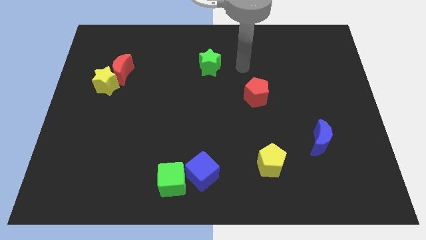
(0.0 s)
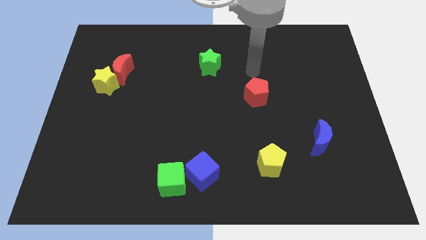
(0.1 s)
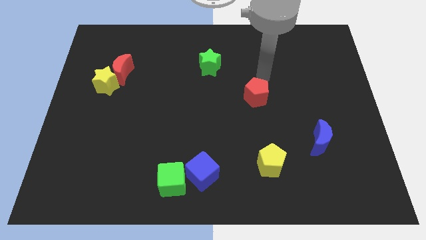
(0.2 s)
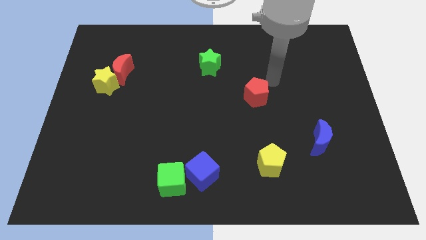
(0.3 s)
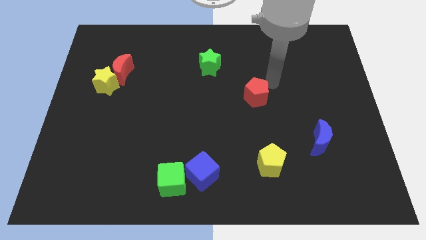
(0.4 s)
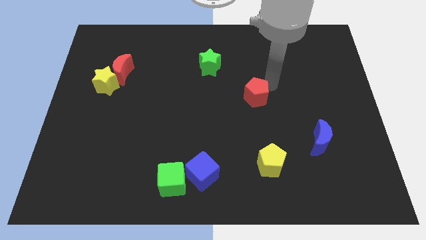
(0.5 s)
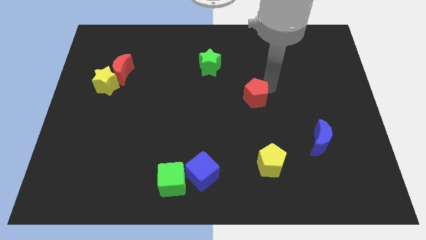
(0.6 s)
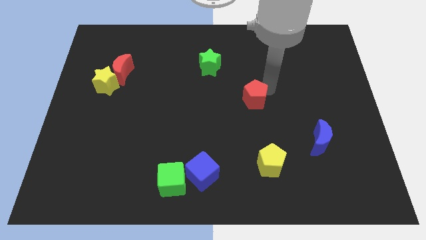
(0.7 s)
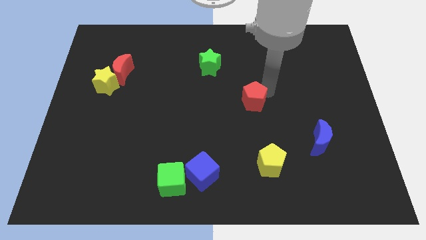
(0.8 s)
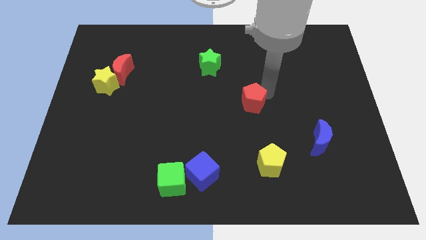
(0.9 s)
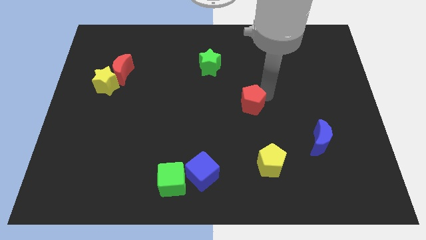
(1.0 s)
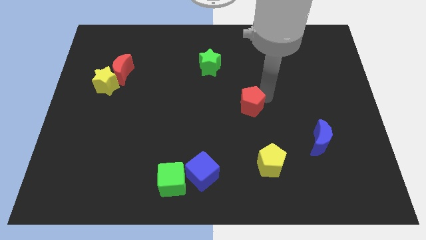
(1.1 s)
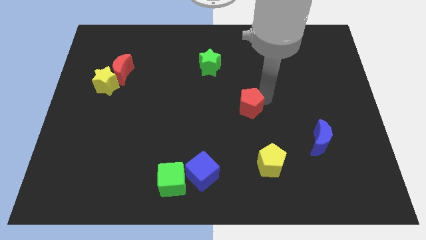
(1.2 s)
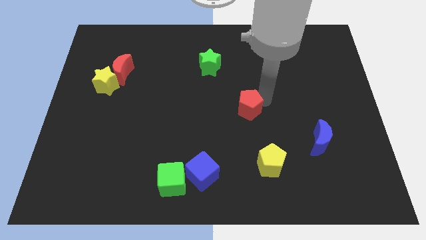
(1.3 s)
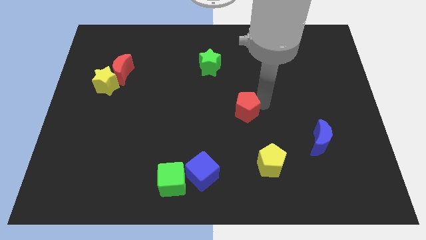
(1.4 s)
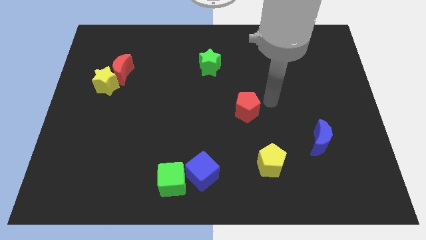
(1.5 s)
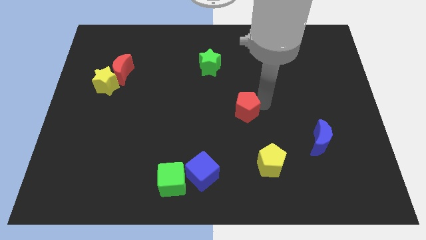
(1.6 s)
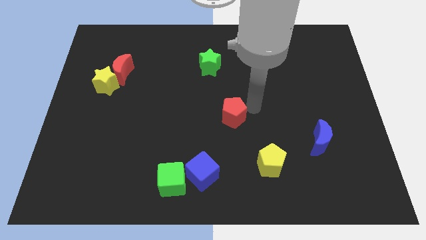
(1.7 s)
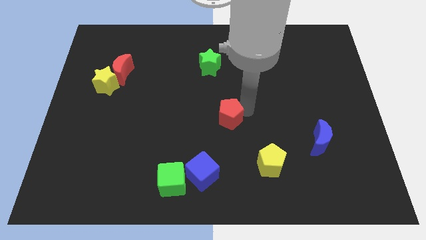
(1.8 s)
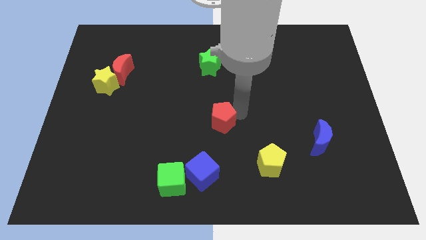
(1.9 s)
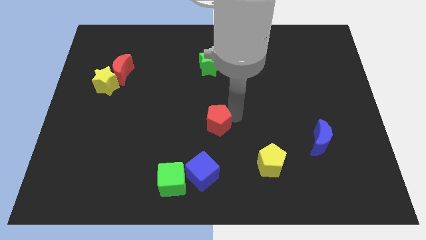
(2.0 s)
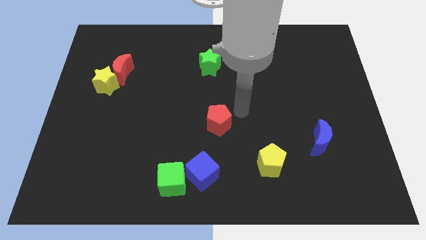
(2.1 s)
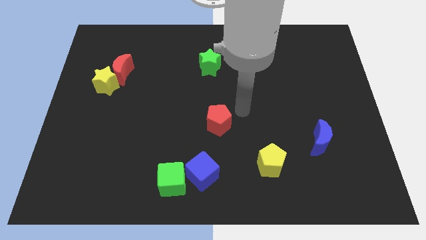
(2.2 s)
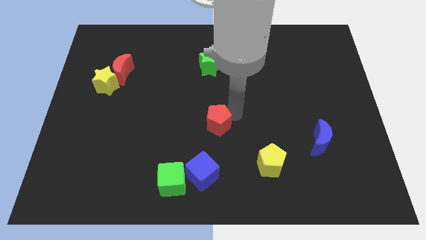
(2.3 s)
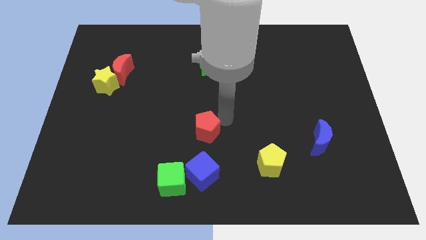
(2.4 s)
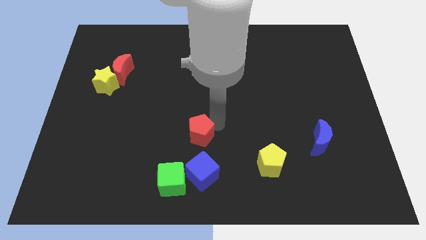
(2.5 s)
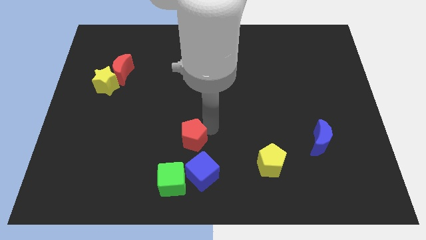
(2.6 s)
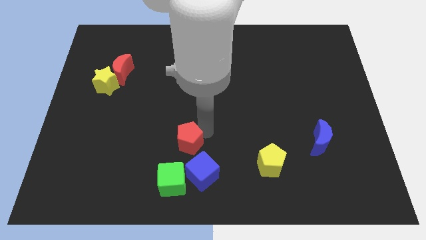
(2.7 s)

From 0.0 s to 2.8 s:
push the red pentagon diagonally downwards and left

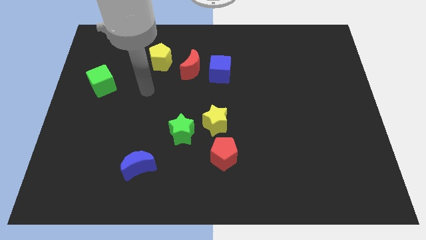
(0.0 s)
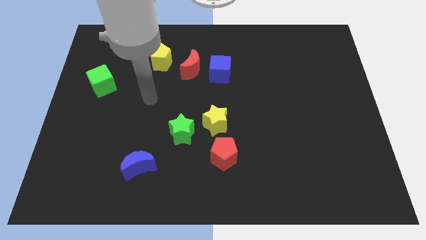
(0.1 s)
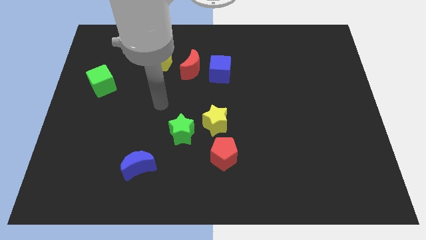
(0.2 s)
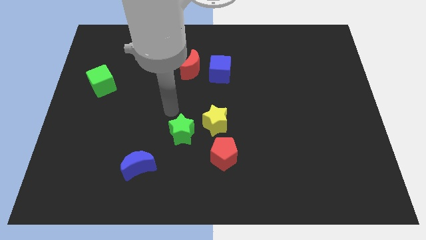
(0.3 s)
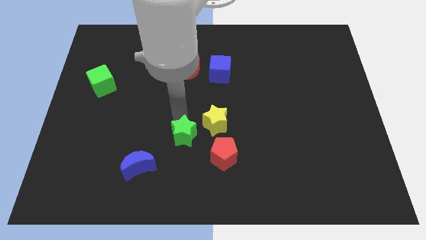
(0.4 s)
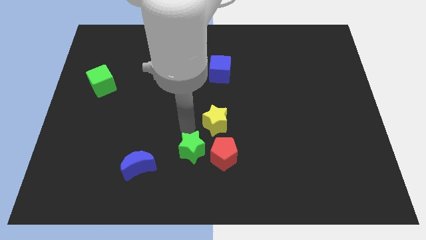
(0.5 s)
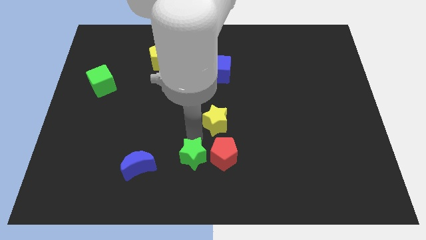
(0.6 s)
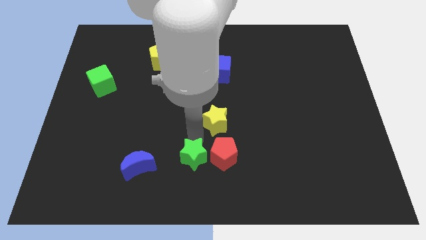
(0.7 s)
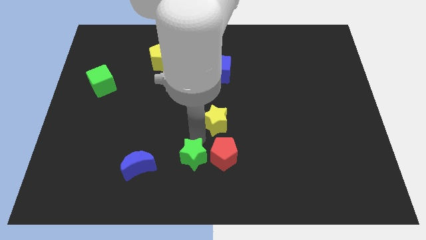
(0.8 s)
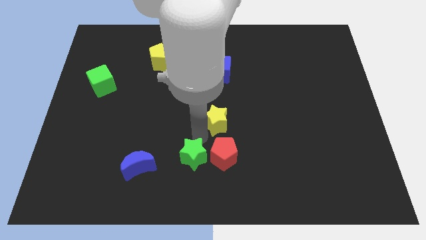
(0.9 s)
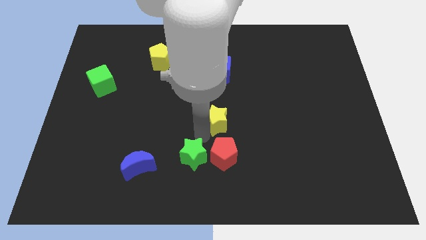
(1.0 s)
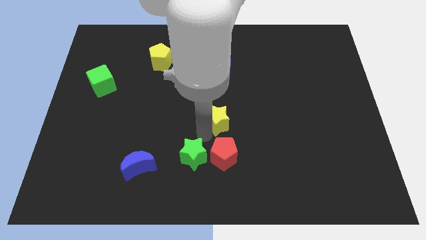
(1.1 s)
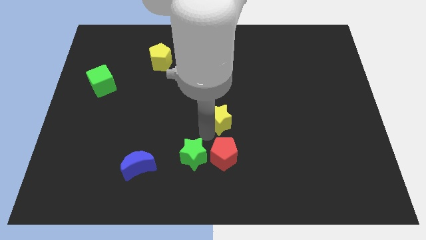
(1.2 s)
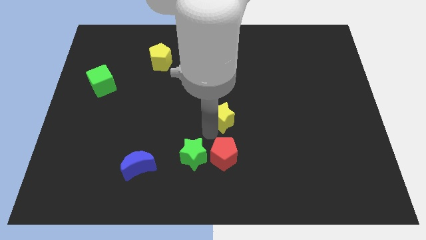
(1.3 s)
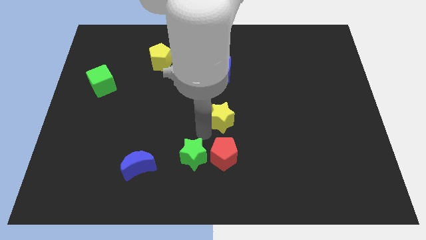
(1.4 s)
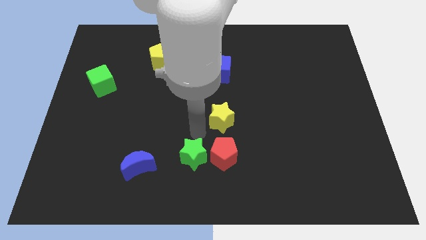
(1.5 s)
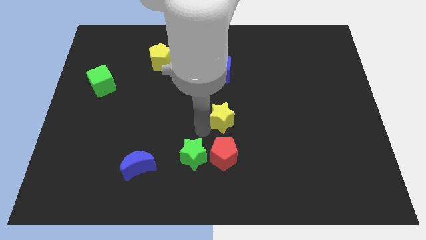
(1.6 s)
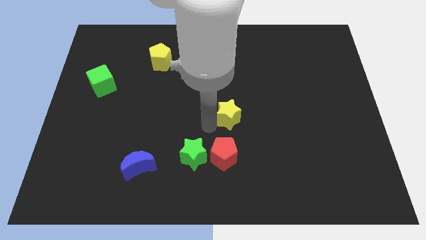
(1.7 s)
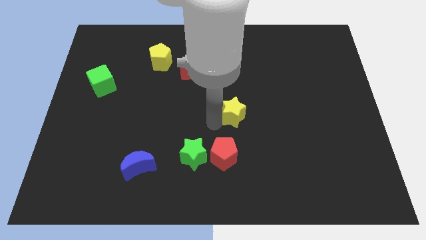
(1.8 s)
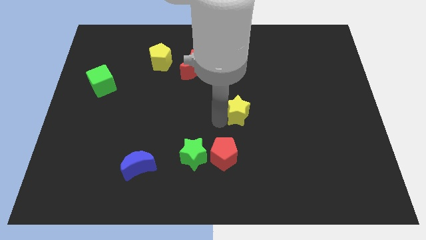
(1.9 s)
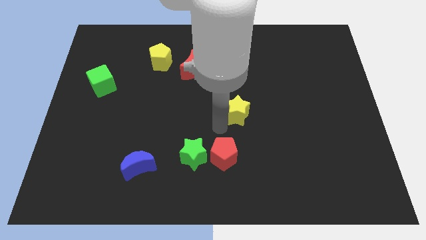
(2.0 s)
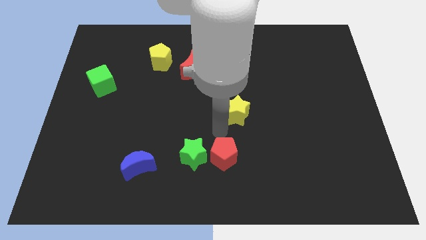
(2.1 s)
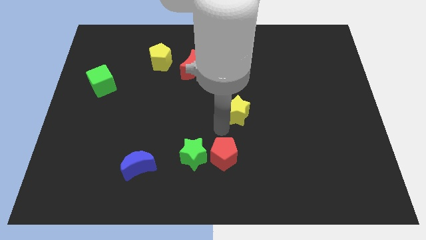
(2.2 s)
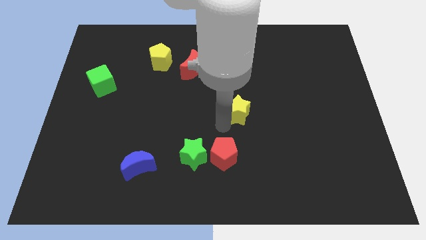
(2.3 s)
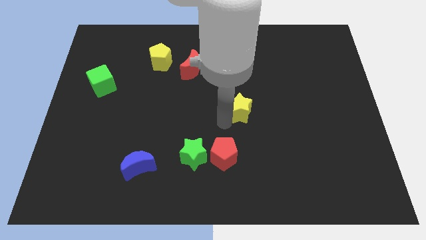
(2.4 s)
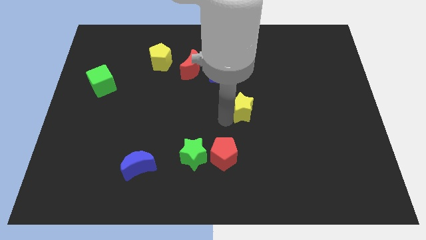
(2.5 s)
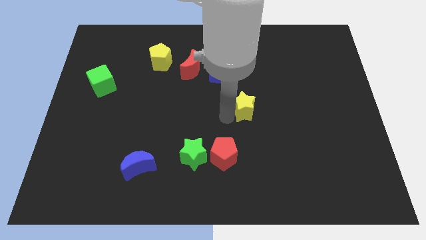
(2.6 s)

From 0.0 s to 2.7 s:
slightly move the yellow star diagonally upwards and right

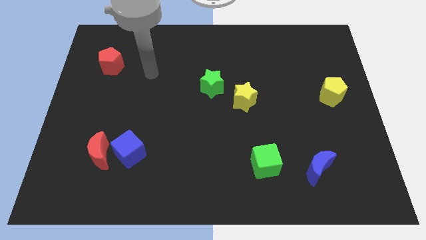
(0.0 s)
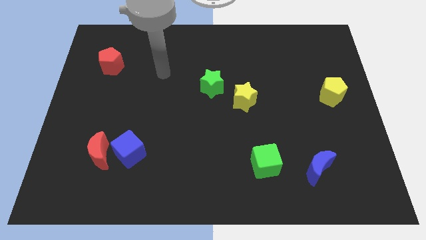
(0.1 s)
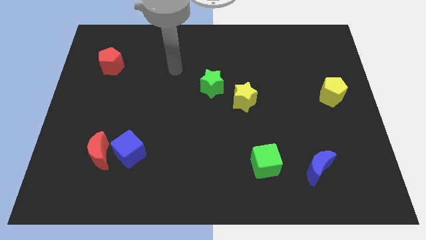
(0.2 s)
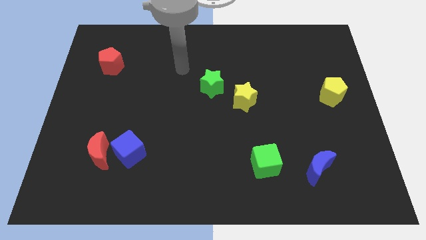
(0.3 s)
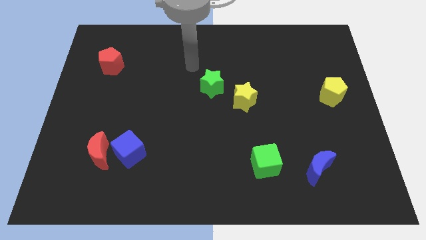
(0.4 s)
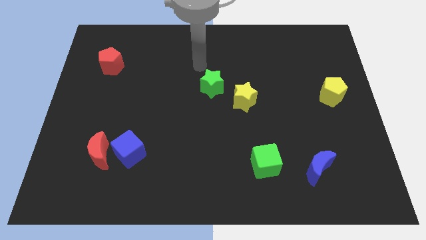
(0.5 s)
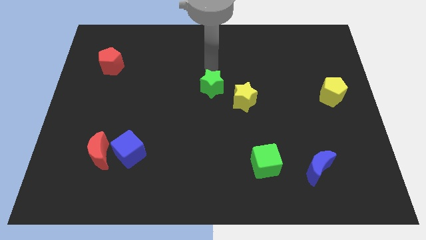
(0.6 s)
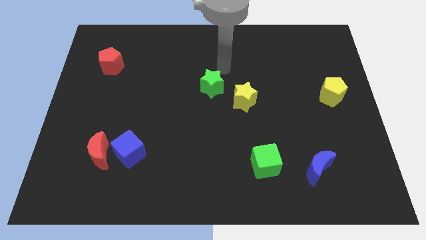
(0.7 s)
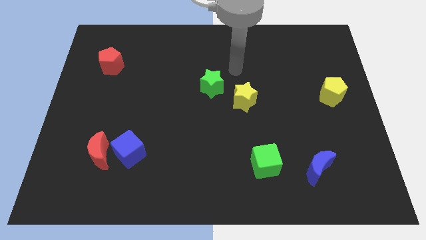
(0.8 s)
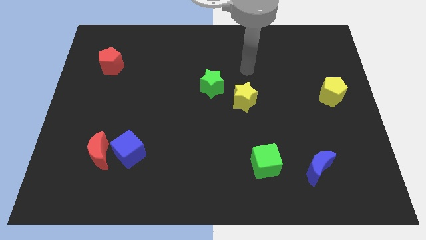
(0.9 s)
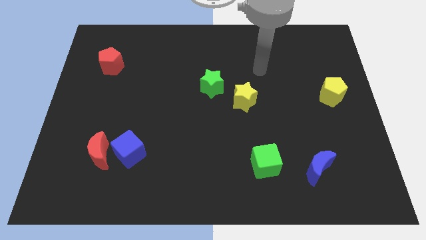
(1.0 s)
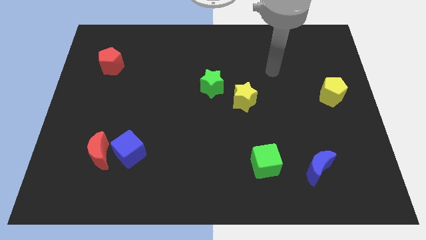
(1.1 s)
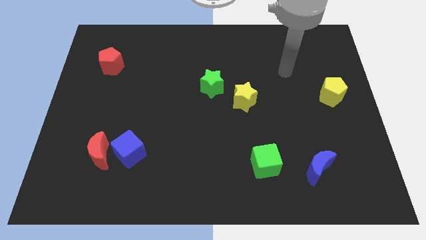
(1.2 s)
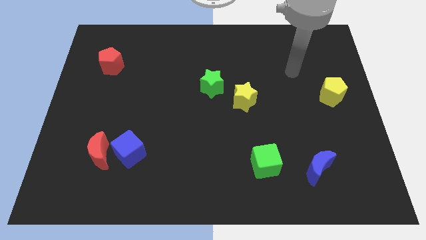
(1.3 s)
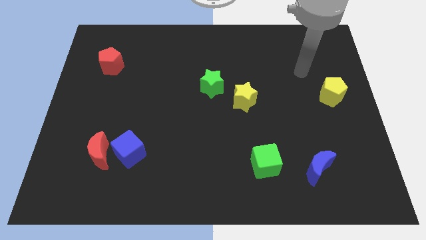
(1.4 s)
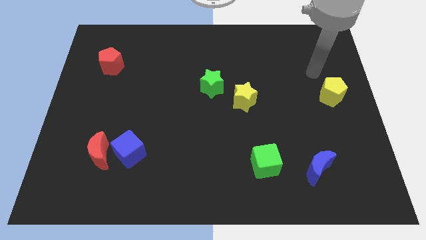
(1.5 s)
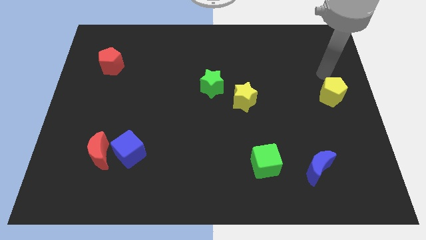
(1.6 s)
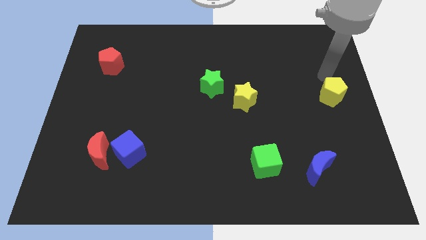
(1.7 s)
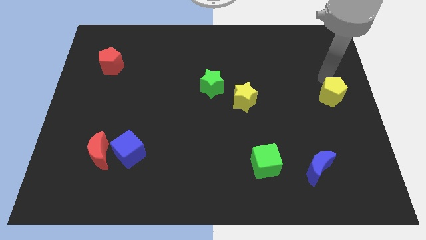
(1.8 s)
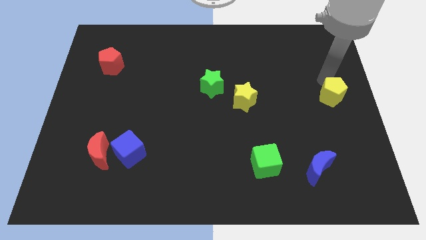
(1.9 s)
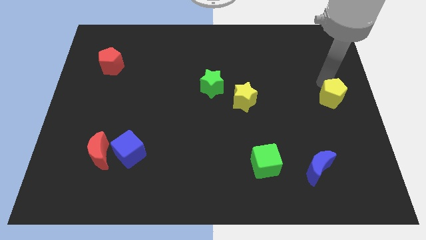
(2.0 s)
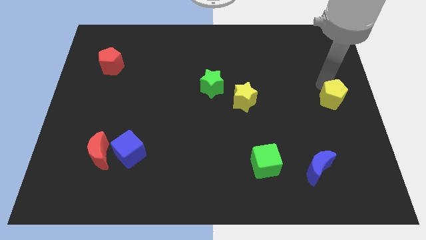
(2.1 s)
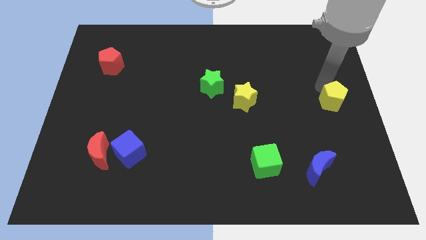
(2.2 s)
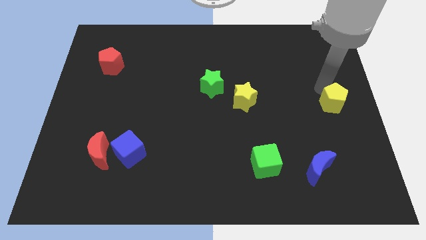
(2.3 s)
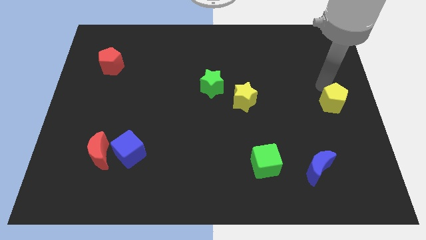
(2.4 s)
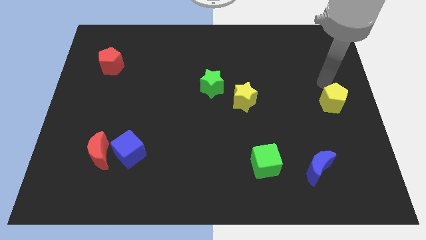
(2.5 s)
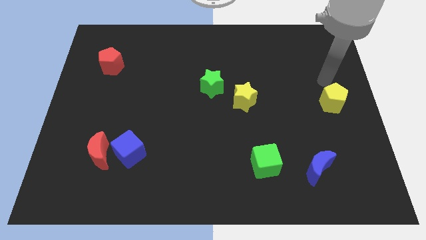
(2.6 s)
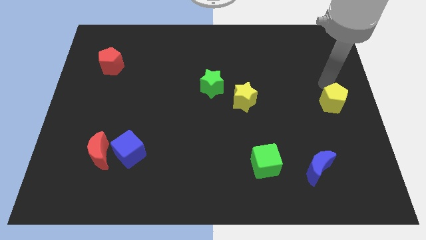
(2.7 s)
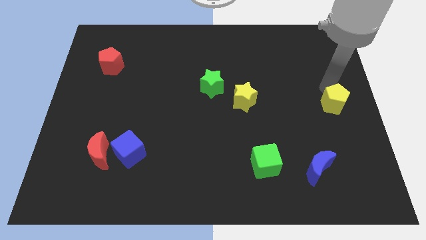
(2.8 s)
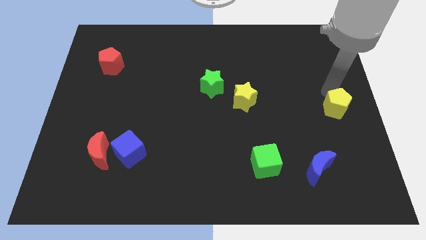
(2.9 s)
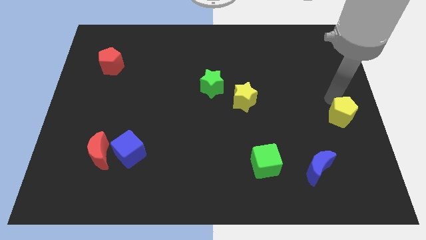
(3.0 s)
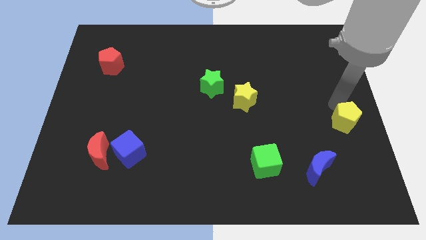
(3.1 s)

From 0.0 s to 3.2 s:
move the yellow pentagon downwards a bit
